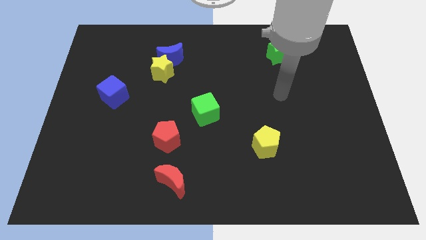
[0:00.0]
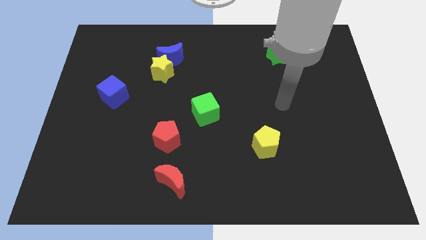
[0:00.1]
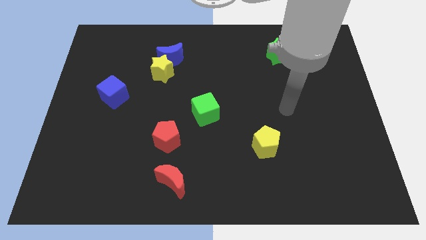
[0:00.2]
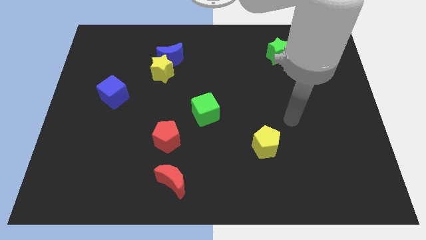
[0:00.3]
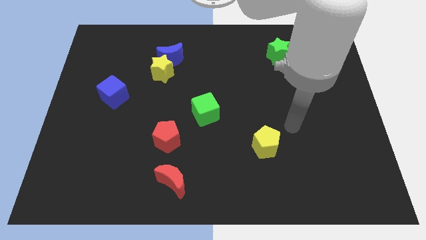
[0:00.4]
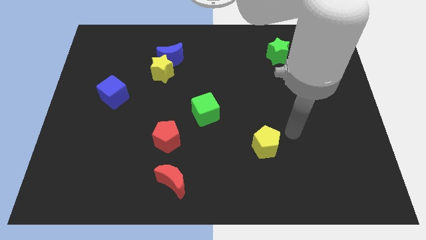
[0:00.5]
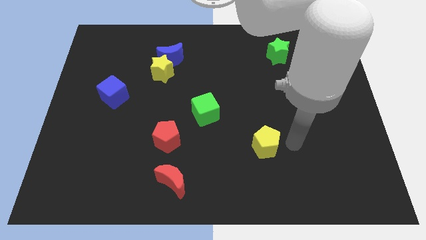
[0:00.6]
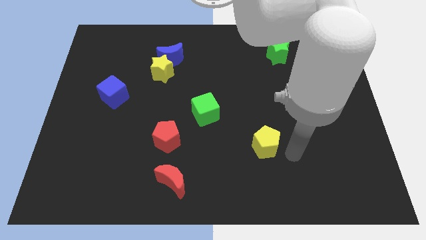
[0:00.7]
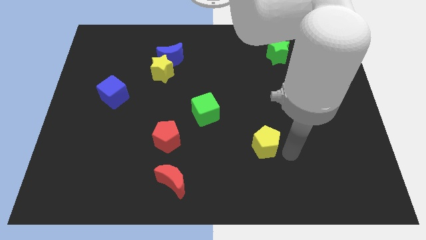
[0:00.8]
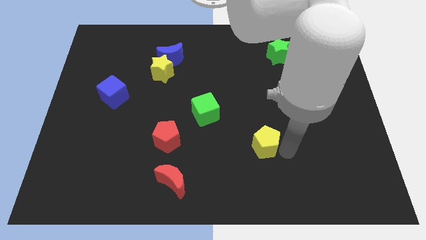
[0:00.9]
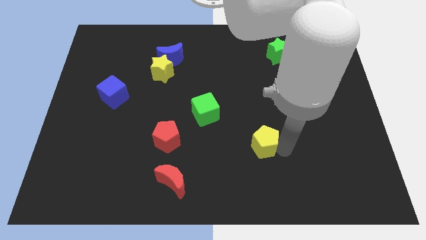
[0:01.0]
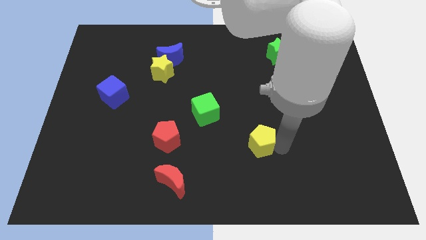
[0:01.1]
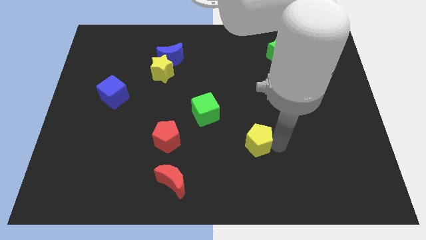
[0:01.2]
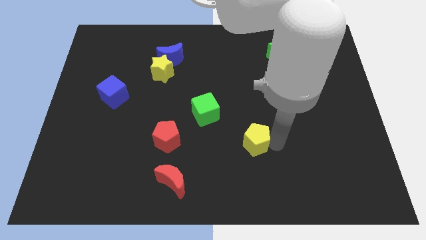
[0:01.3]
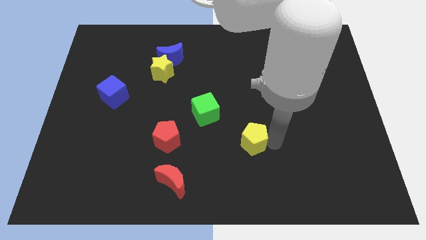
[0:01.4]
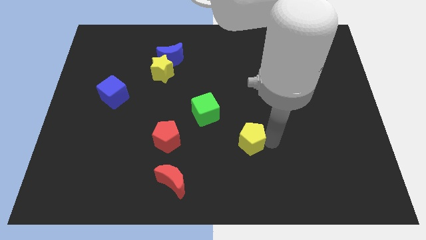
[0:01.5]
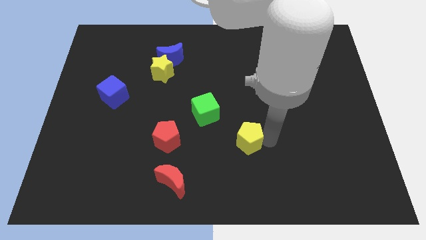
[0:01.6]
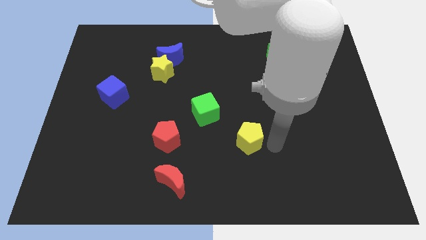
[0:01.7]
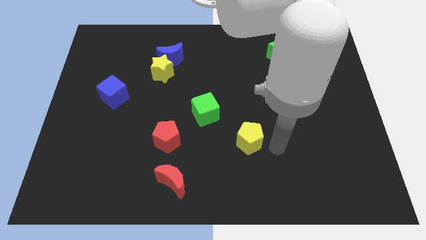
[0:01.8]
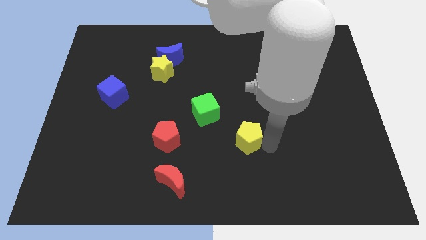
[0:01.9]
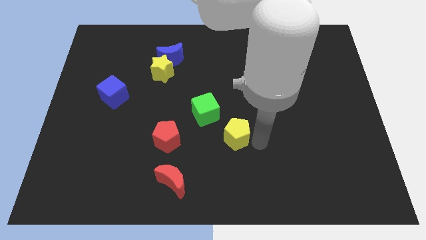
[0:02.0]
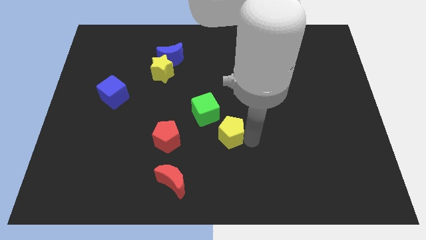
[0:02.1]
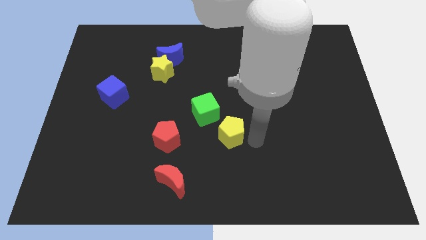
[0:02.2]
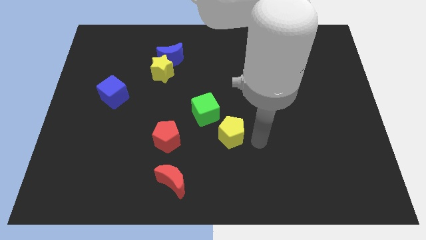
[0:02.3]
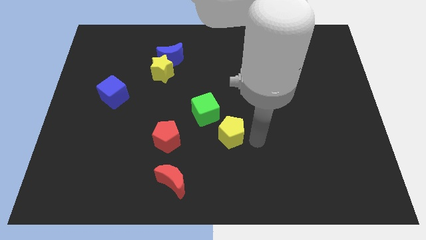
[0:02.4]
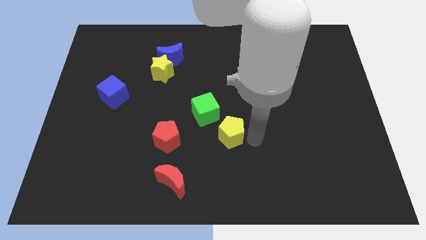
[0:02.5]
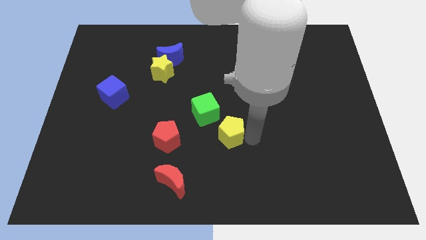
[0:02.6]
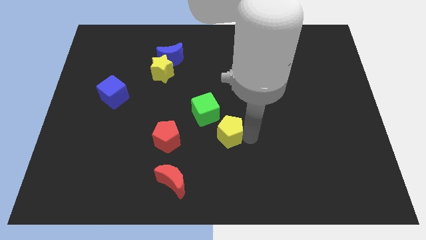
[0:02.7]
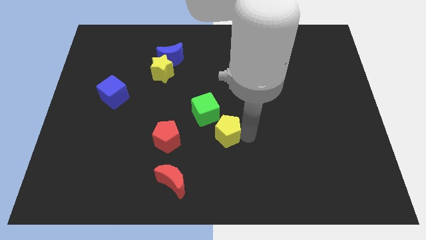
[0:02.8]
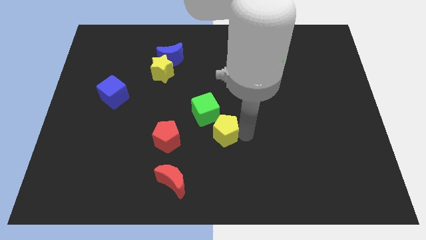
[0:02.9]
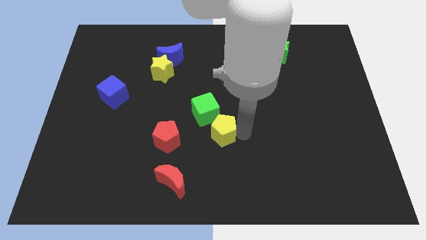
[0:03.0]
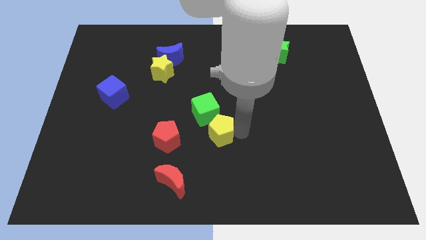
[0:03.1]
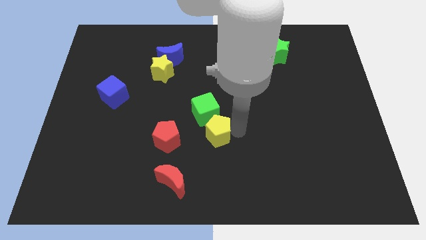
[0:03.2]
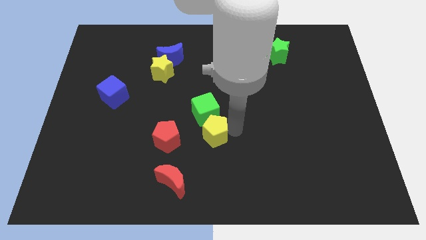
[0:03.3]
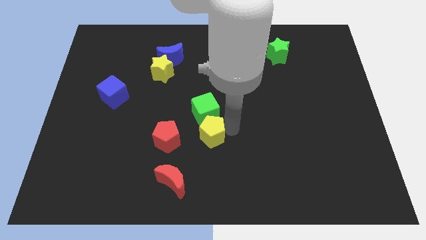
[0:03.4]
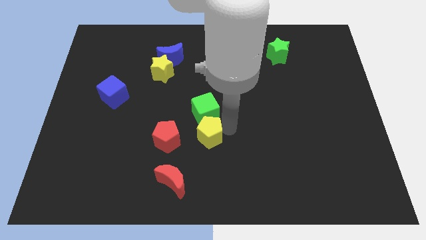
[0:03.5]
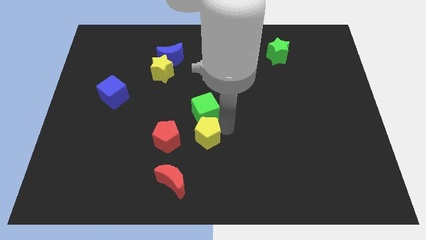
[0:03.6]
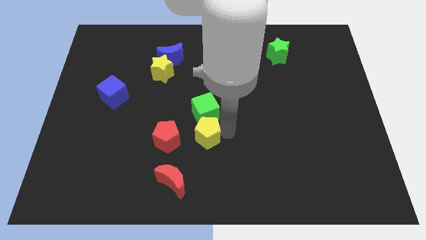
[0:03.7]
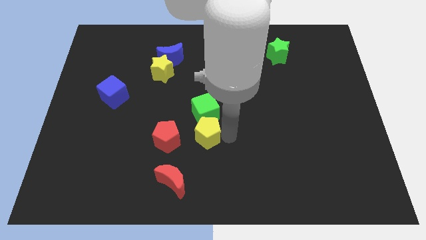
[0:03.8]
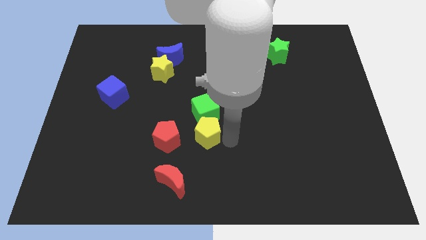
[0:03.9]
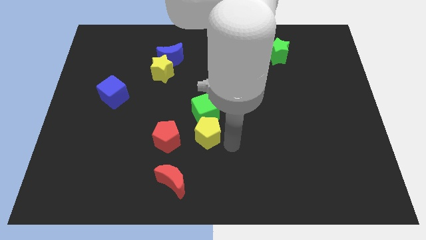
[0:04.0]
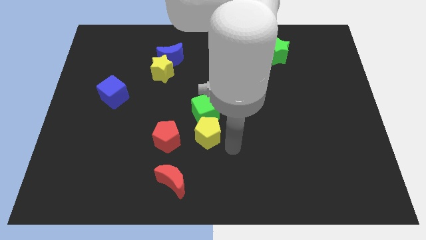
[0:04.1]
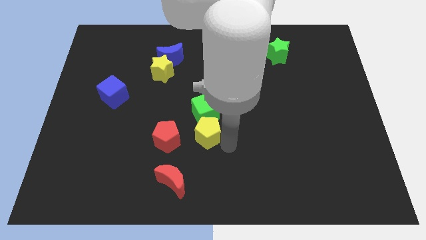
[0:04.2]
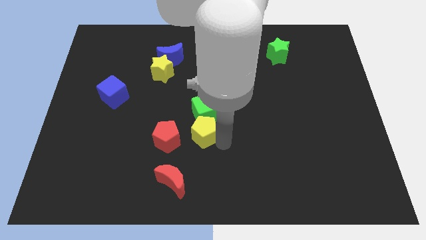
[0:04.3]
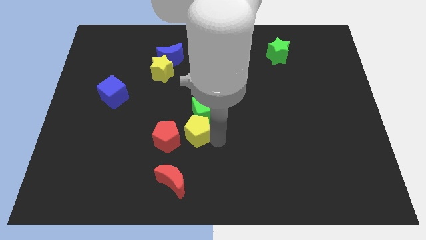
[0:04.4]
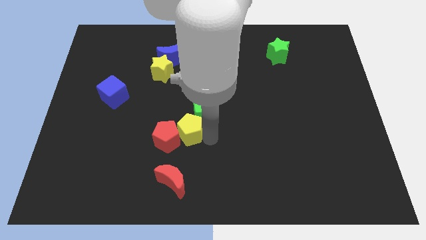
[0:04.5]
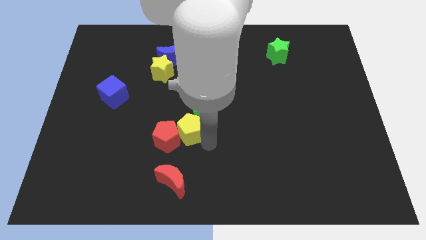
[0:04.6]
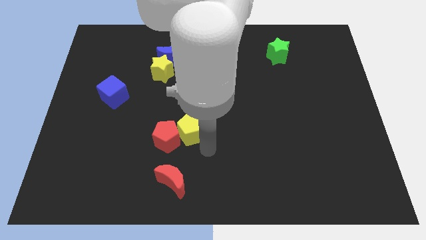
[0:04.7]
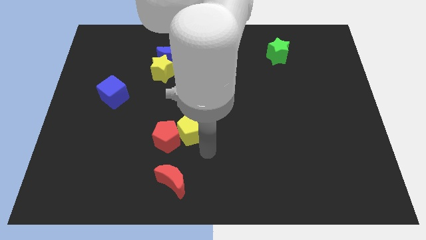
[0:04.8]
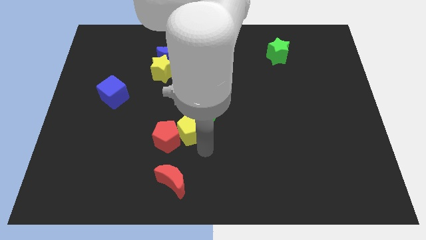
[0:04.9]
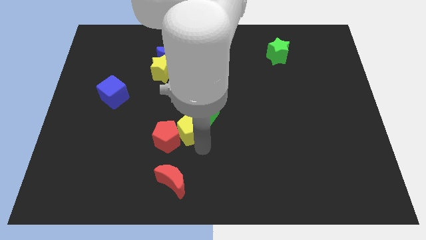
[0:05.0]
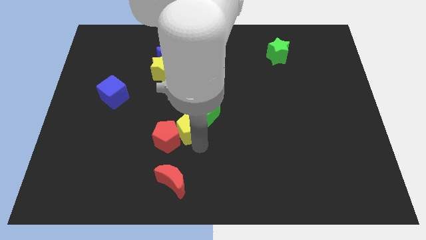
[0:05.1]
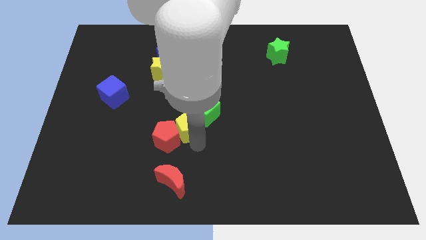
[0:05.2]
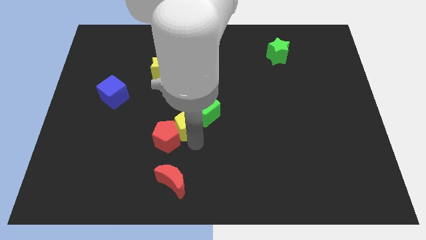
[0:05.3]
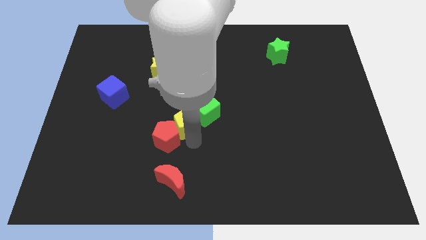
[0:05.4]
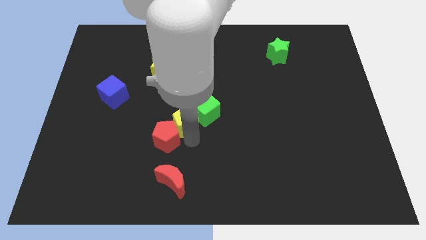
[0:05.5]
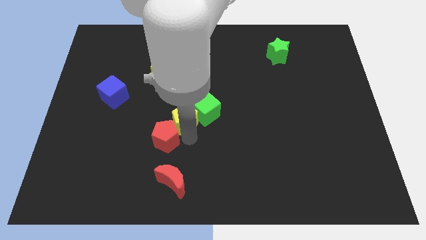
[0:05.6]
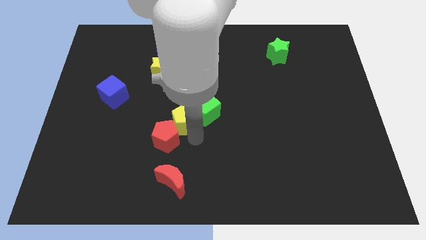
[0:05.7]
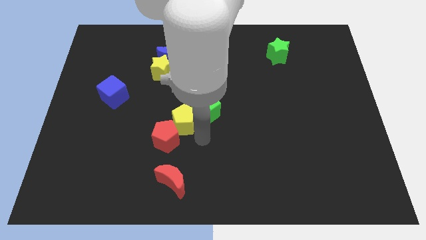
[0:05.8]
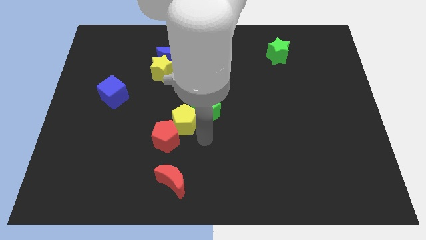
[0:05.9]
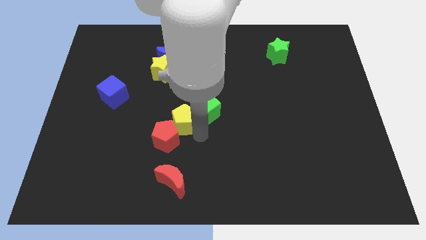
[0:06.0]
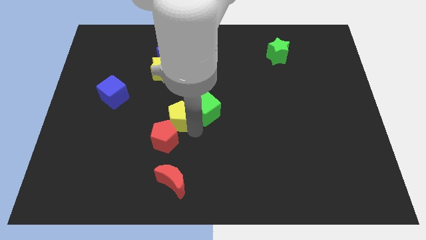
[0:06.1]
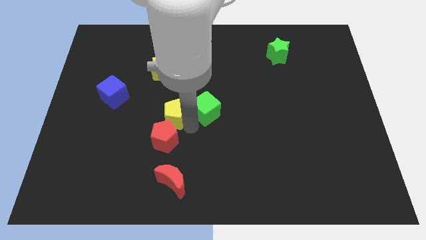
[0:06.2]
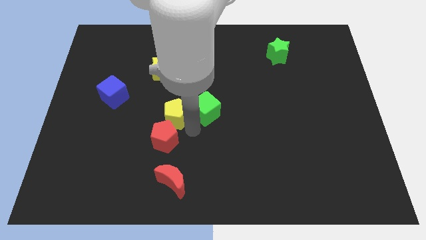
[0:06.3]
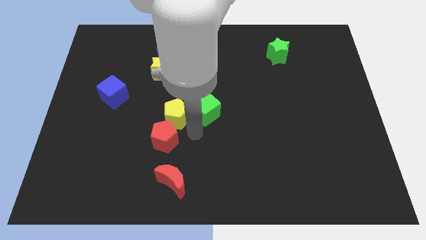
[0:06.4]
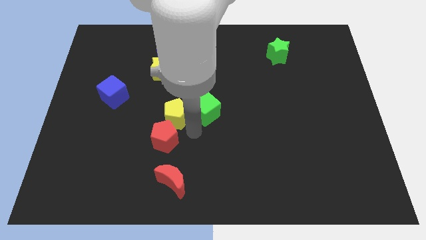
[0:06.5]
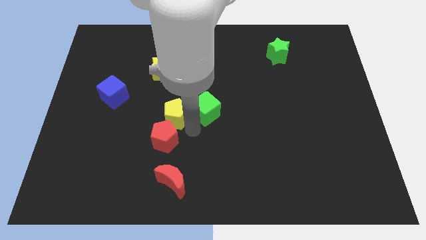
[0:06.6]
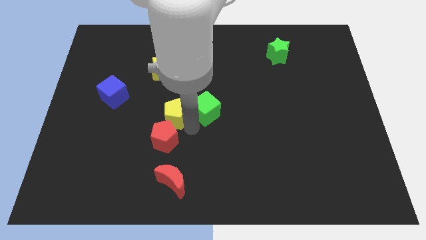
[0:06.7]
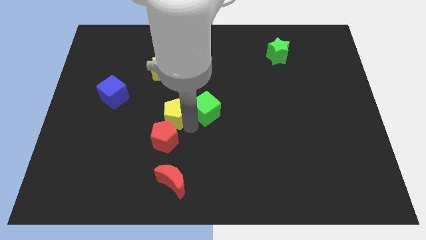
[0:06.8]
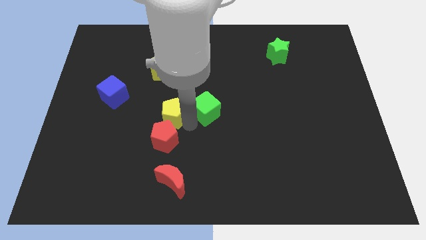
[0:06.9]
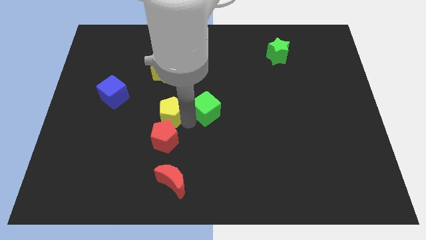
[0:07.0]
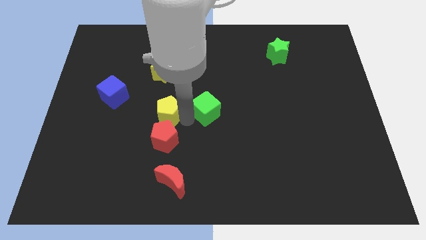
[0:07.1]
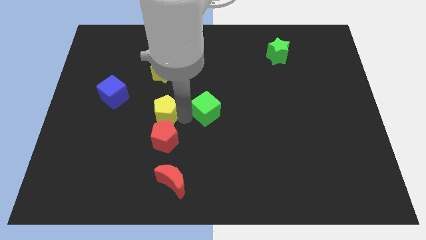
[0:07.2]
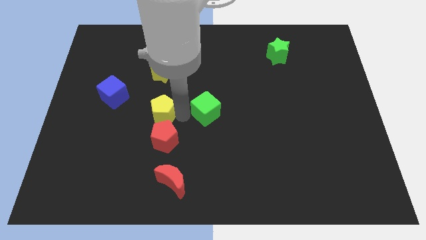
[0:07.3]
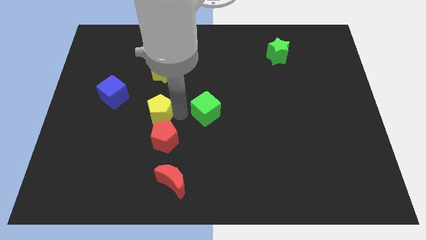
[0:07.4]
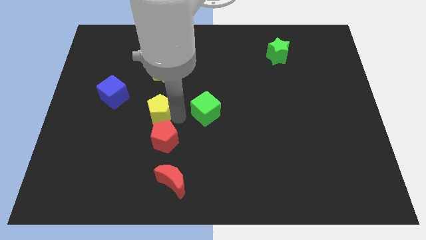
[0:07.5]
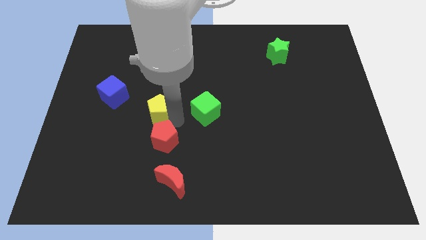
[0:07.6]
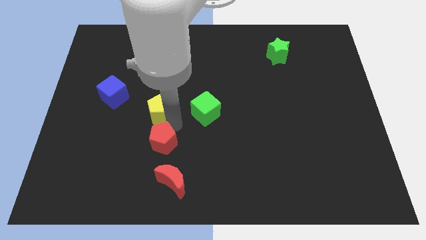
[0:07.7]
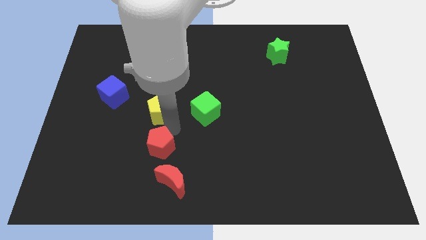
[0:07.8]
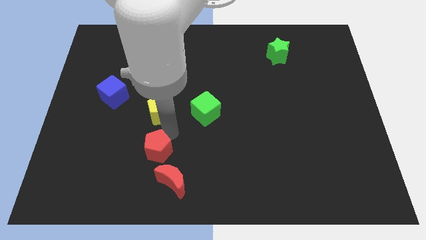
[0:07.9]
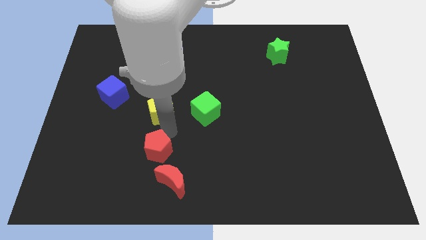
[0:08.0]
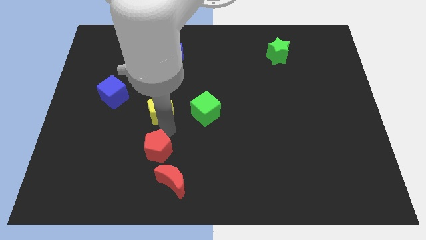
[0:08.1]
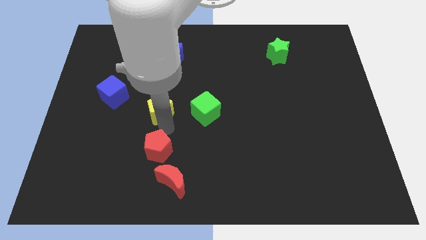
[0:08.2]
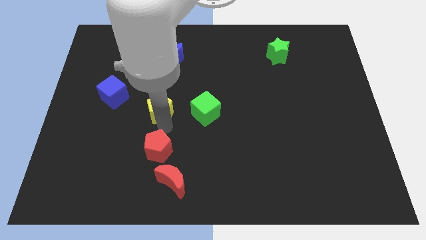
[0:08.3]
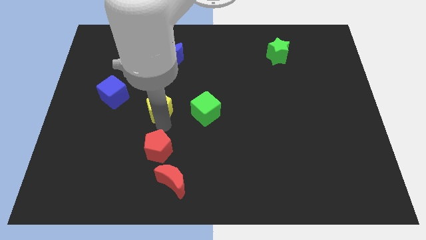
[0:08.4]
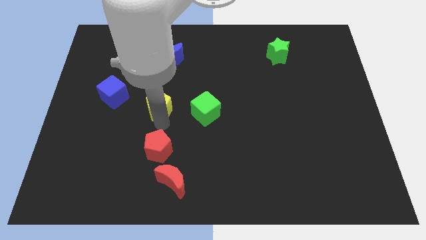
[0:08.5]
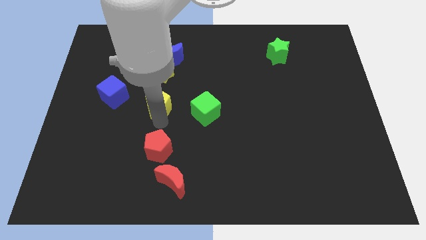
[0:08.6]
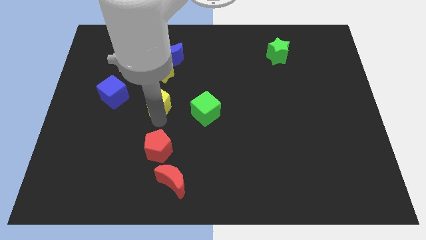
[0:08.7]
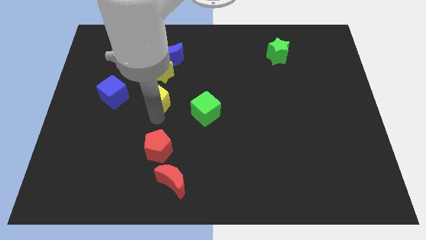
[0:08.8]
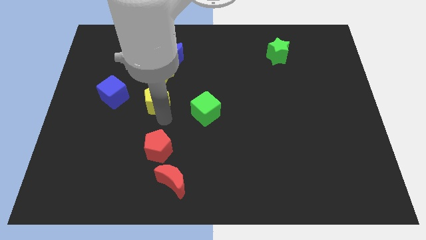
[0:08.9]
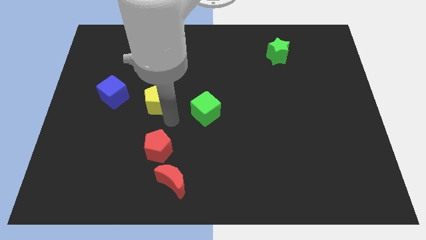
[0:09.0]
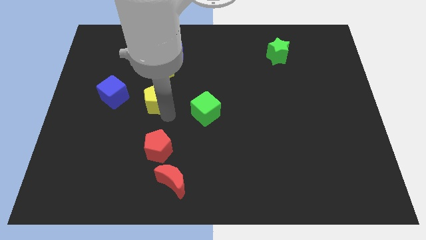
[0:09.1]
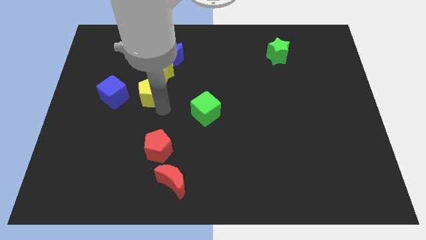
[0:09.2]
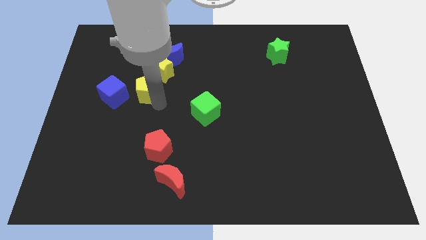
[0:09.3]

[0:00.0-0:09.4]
push the yellow pentagon to the top right side of the blue cube
